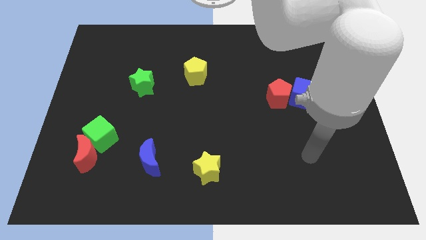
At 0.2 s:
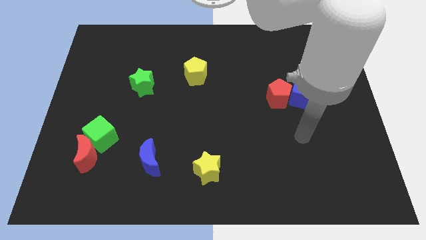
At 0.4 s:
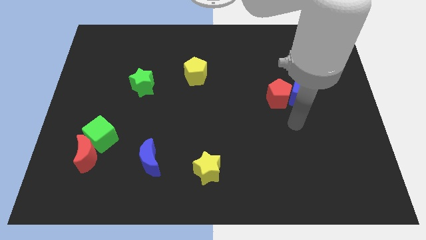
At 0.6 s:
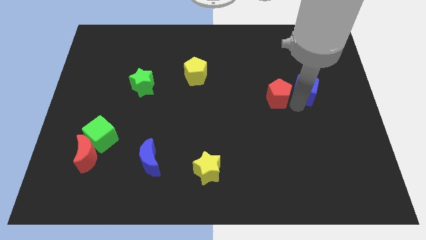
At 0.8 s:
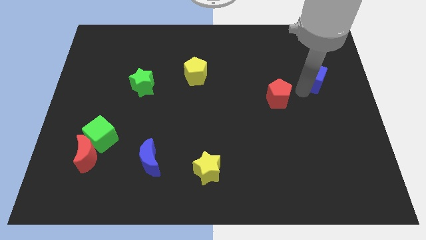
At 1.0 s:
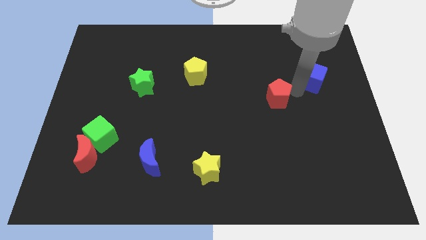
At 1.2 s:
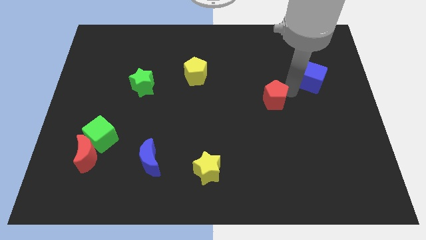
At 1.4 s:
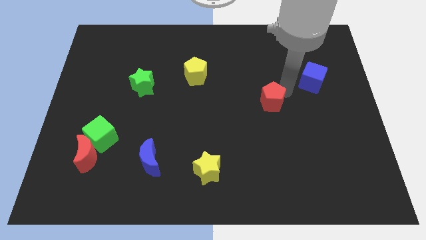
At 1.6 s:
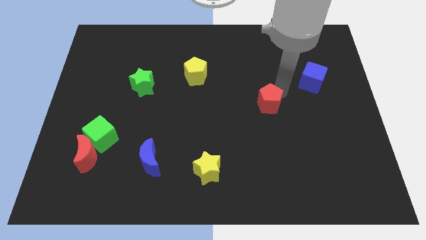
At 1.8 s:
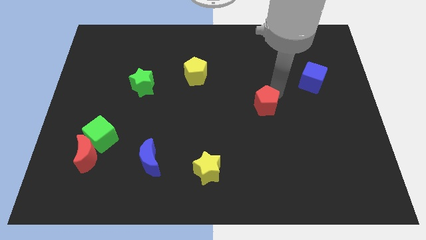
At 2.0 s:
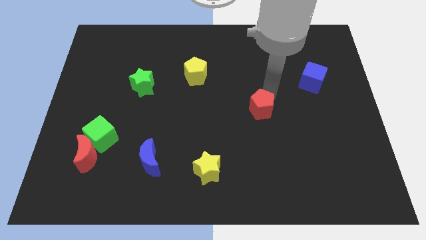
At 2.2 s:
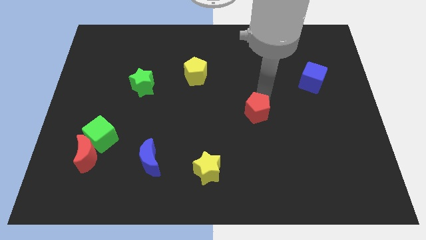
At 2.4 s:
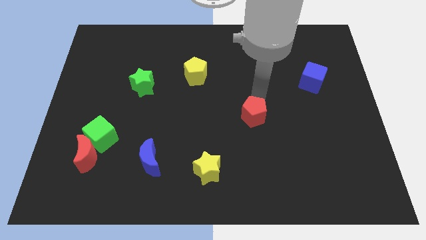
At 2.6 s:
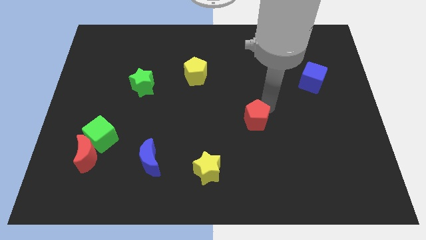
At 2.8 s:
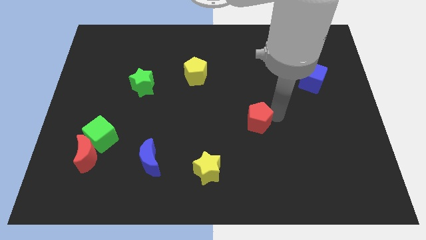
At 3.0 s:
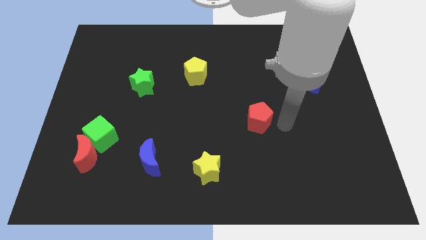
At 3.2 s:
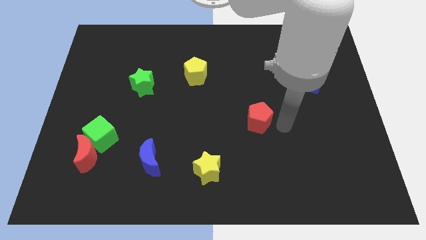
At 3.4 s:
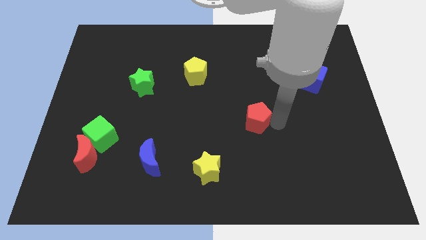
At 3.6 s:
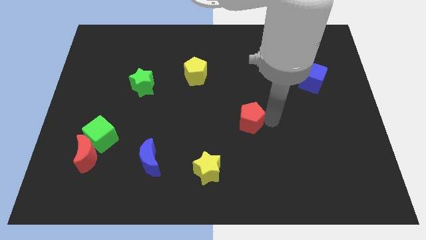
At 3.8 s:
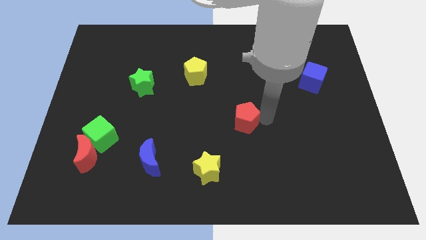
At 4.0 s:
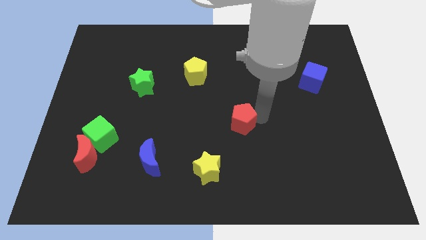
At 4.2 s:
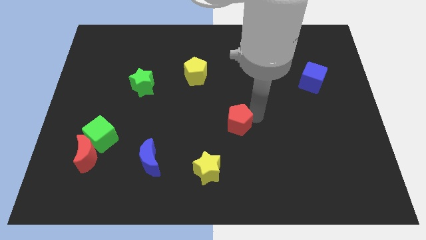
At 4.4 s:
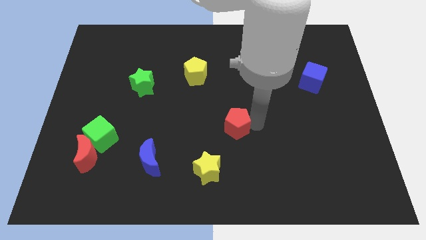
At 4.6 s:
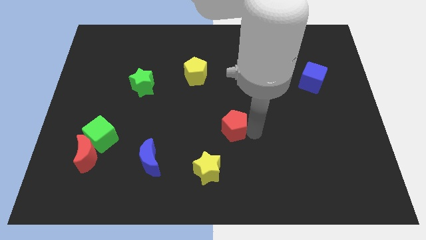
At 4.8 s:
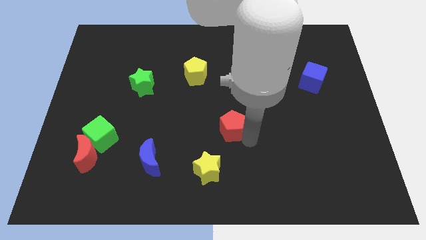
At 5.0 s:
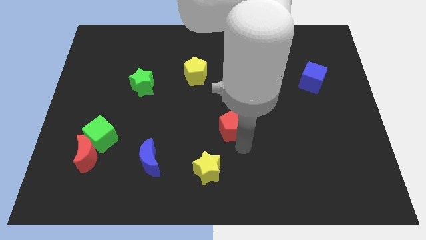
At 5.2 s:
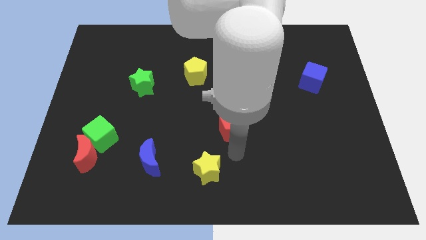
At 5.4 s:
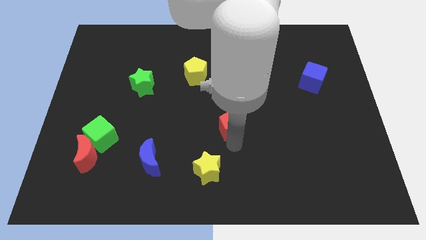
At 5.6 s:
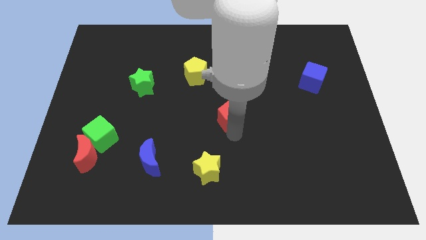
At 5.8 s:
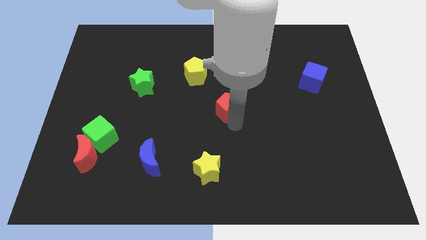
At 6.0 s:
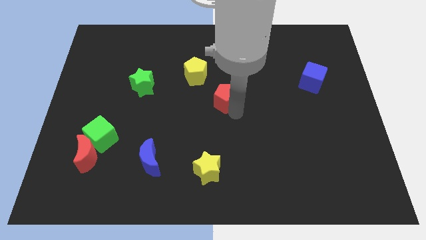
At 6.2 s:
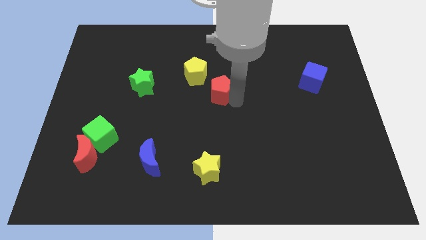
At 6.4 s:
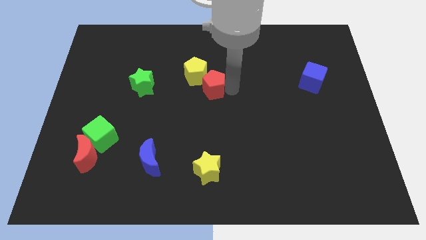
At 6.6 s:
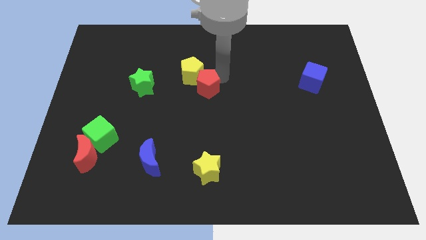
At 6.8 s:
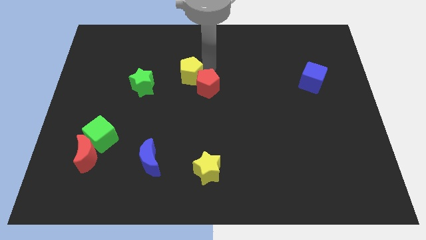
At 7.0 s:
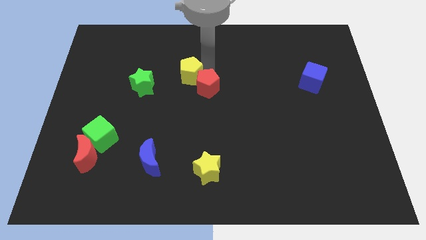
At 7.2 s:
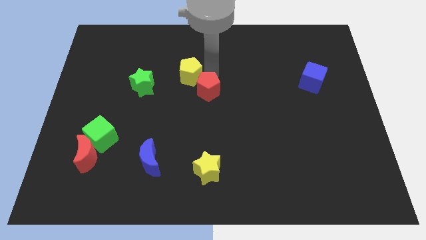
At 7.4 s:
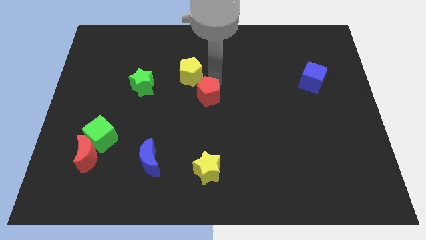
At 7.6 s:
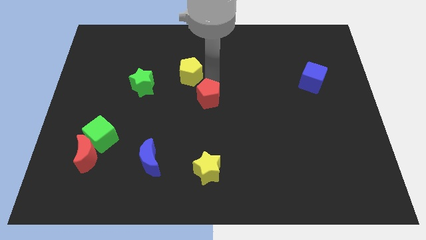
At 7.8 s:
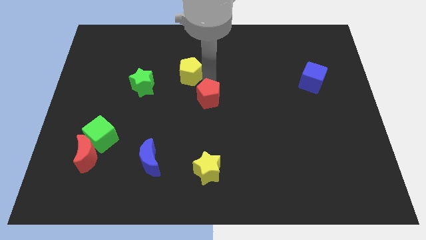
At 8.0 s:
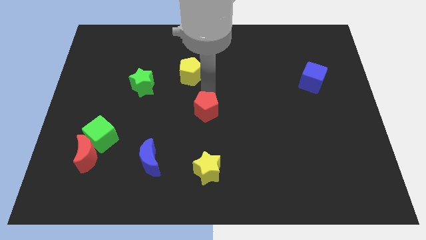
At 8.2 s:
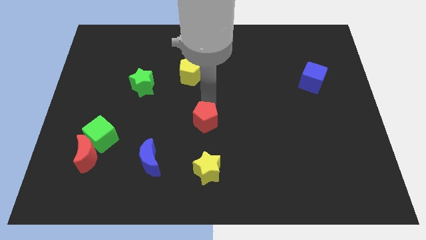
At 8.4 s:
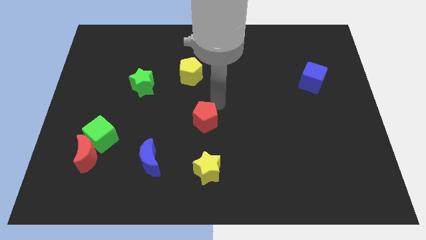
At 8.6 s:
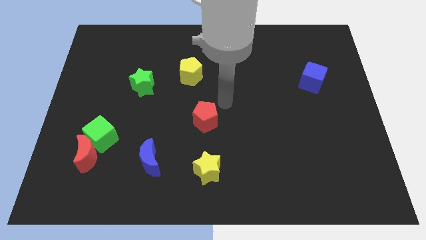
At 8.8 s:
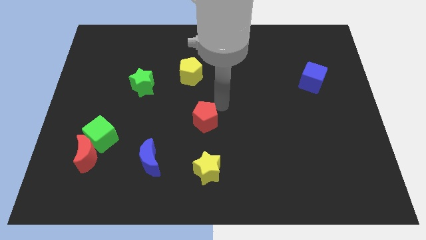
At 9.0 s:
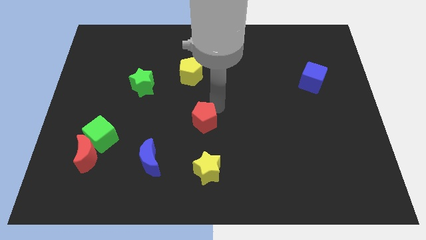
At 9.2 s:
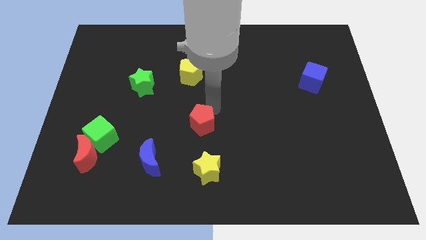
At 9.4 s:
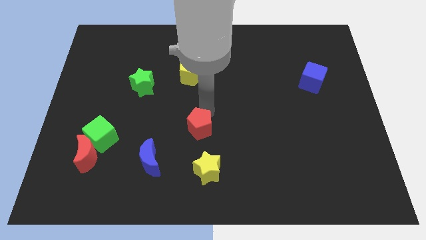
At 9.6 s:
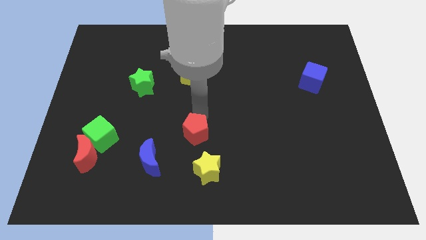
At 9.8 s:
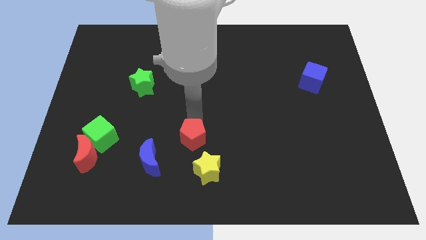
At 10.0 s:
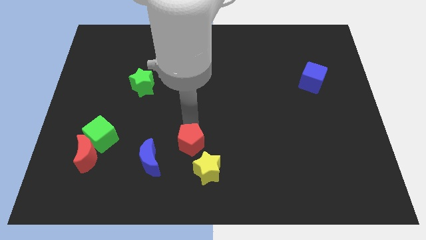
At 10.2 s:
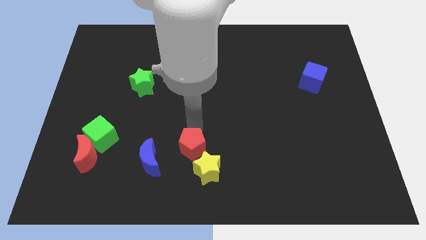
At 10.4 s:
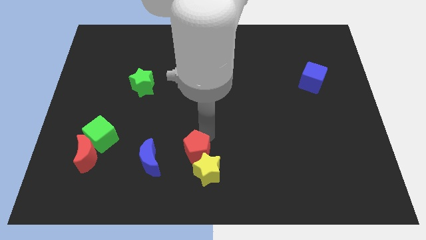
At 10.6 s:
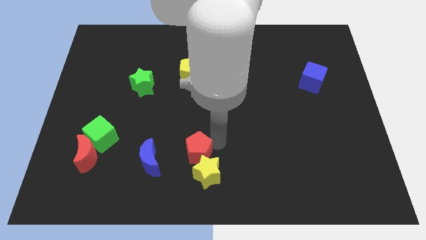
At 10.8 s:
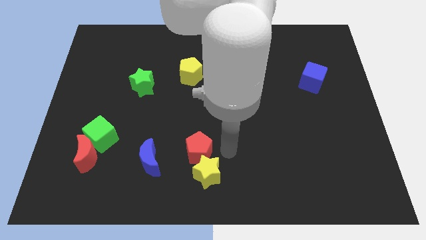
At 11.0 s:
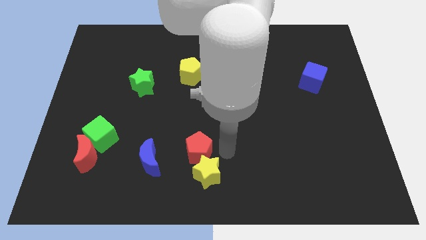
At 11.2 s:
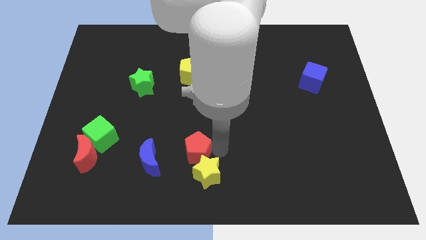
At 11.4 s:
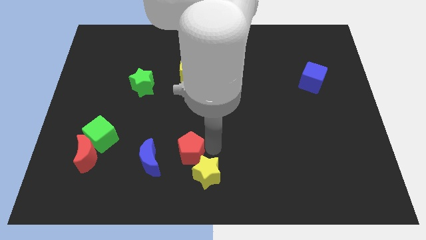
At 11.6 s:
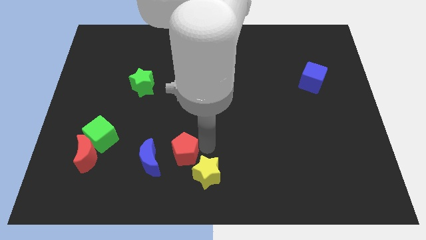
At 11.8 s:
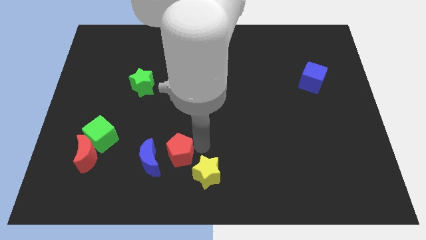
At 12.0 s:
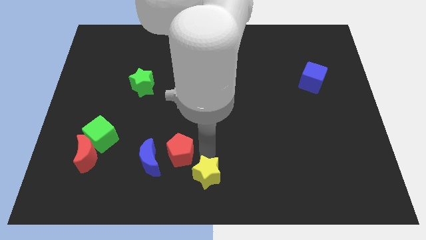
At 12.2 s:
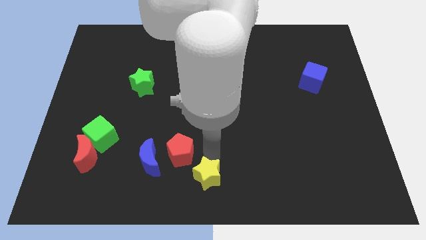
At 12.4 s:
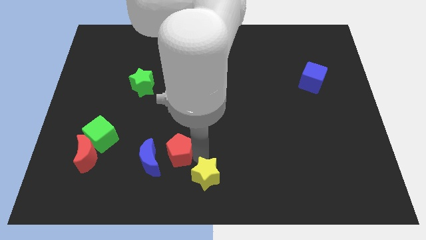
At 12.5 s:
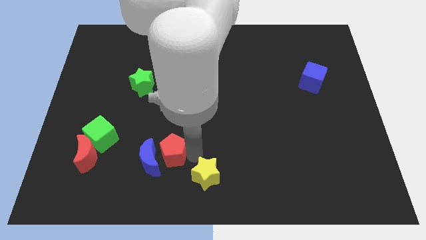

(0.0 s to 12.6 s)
move the red pentagon next to the blue moon
